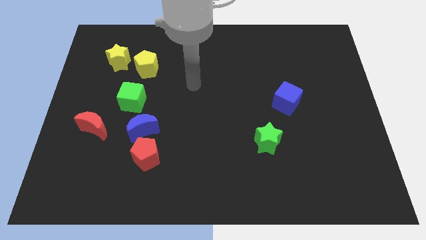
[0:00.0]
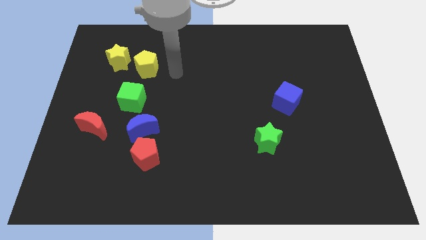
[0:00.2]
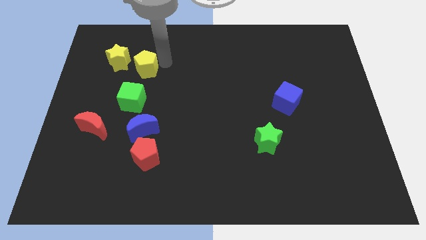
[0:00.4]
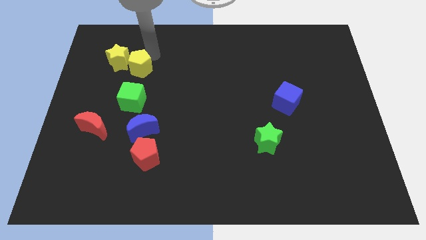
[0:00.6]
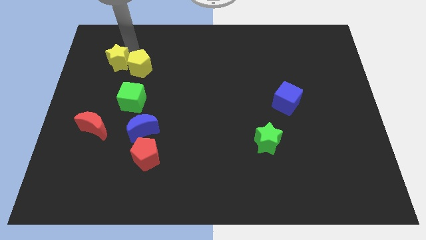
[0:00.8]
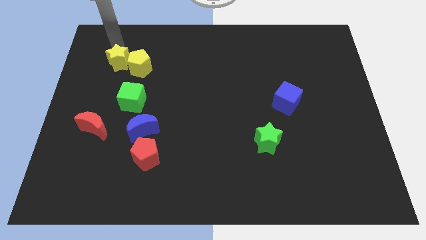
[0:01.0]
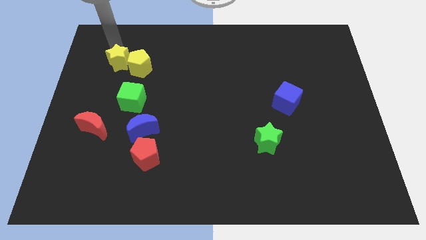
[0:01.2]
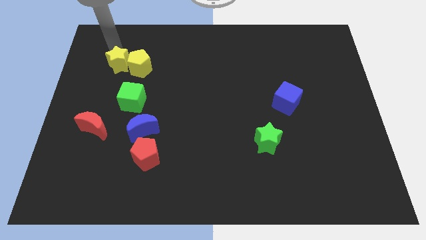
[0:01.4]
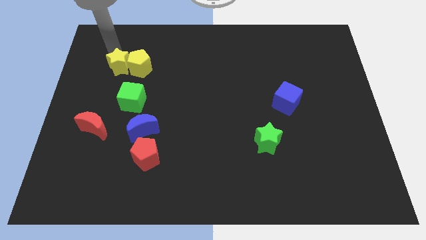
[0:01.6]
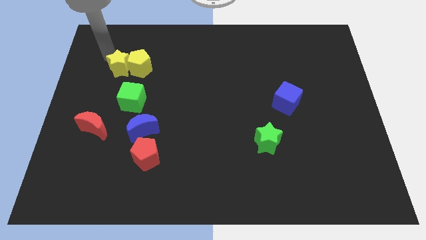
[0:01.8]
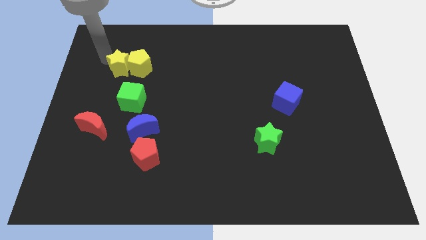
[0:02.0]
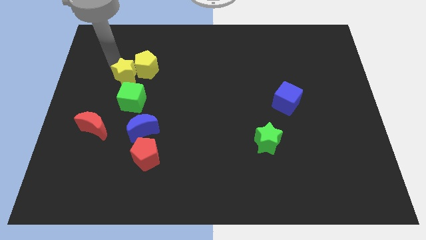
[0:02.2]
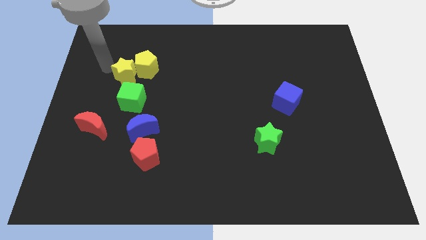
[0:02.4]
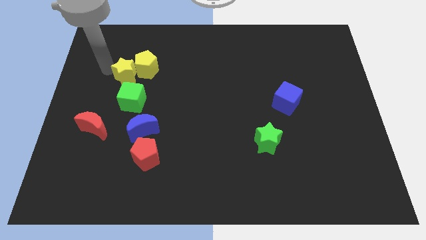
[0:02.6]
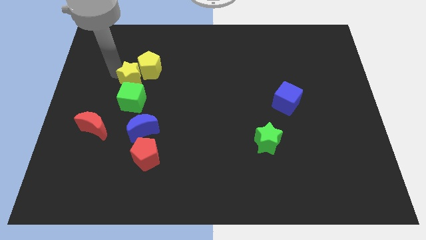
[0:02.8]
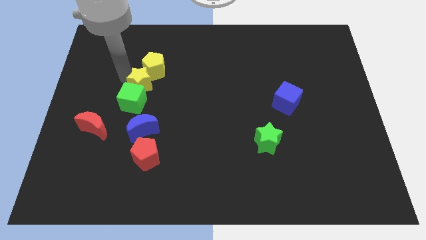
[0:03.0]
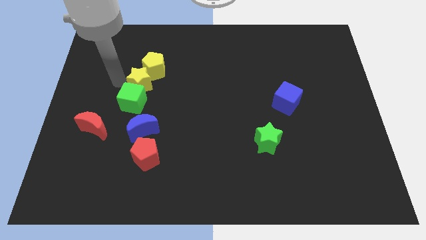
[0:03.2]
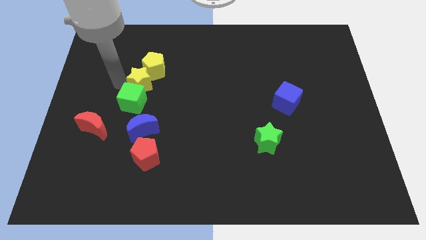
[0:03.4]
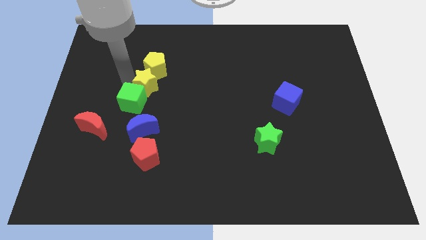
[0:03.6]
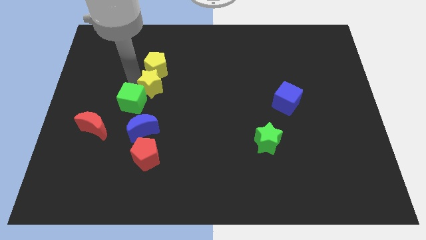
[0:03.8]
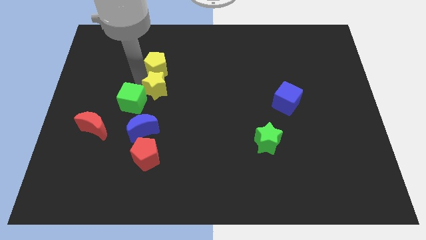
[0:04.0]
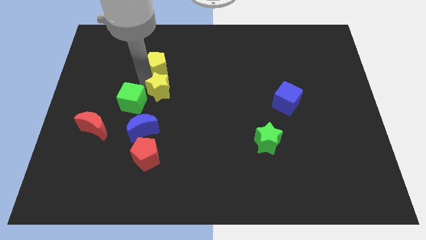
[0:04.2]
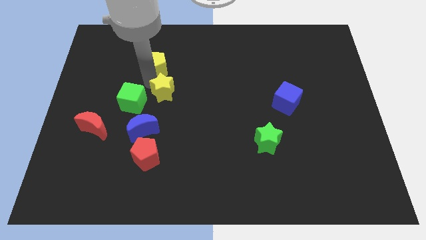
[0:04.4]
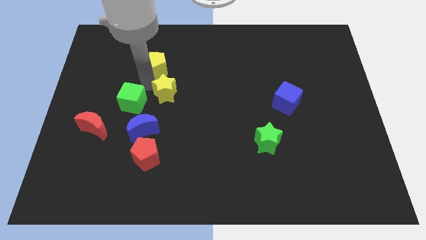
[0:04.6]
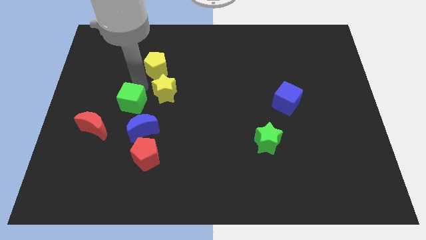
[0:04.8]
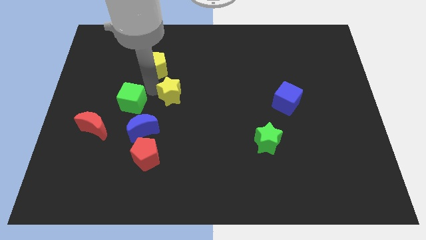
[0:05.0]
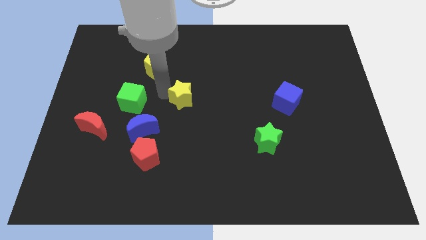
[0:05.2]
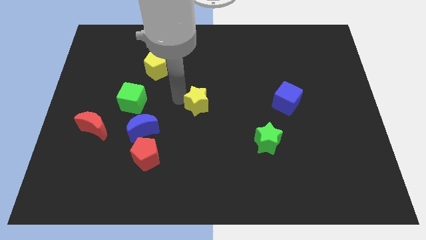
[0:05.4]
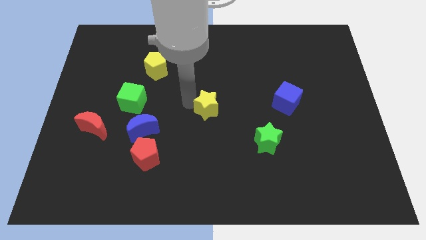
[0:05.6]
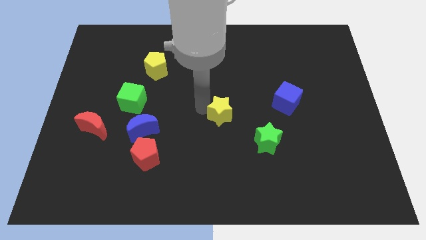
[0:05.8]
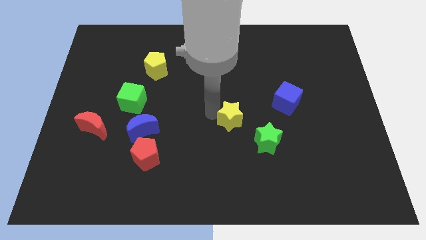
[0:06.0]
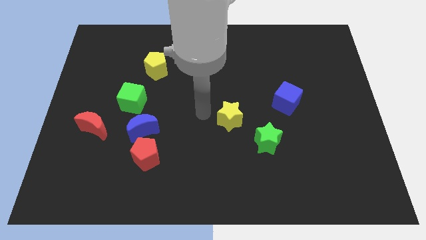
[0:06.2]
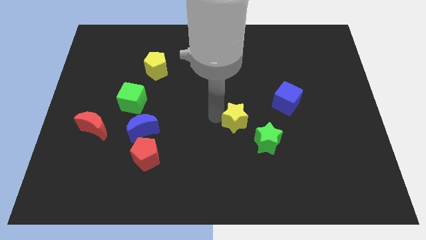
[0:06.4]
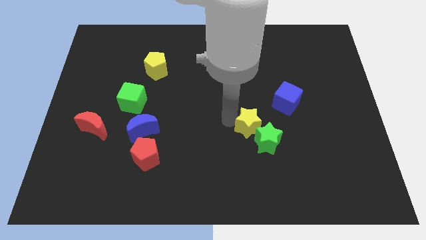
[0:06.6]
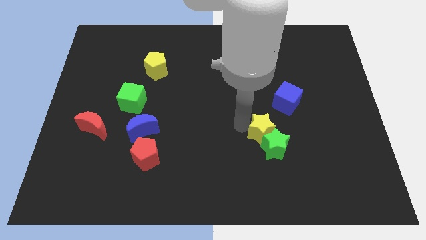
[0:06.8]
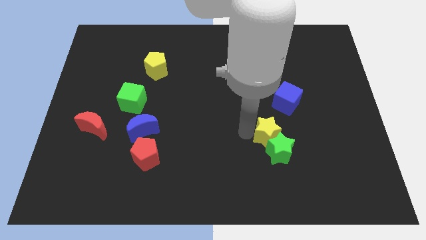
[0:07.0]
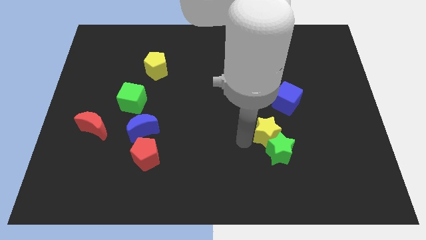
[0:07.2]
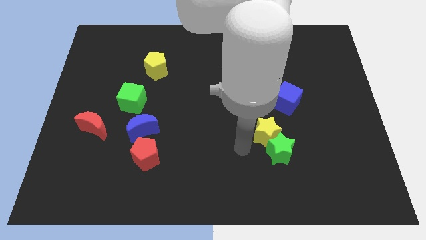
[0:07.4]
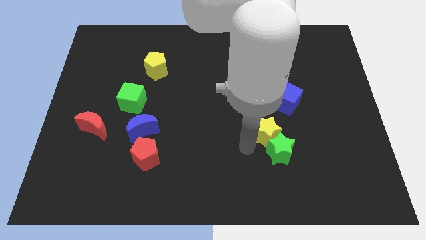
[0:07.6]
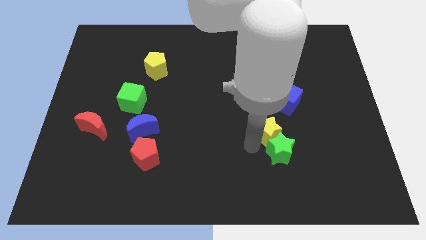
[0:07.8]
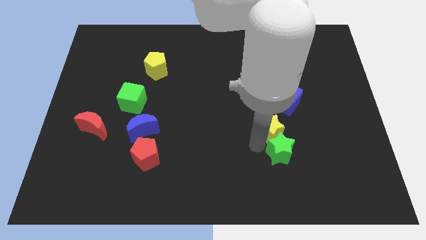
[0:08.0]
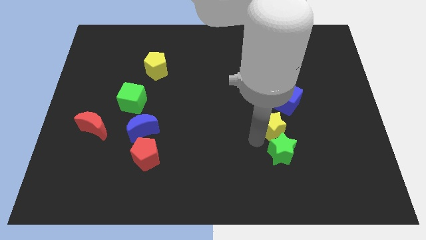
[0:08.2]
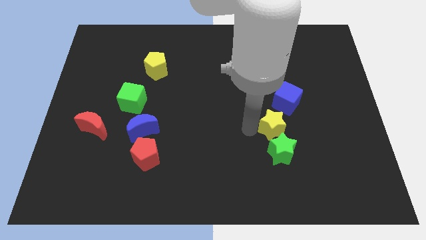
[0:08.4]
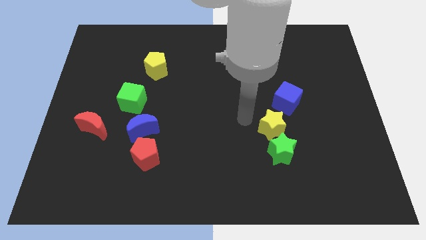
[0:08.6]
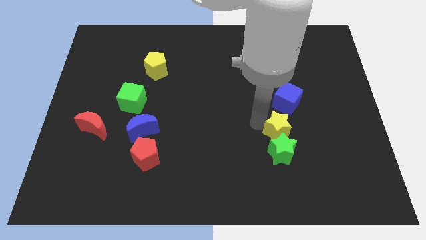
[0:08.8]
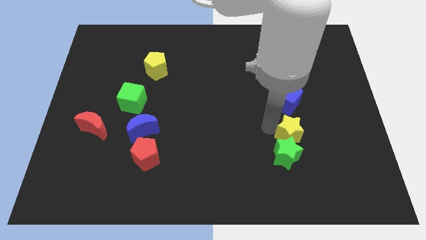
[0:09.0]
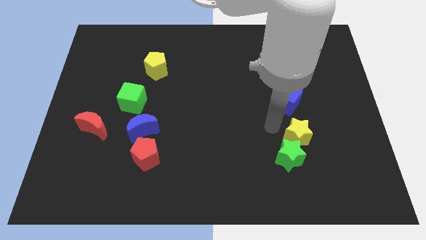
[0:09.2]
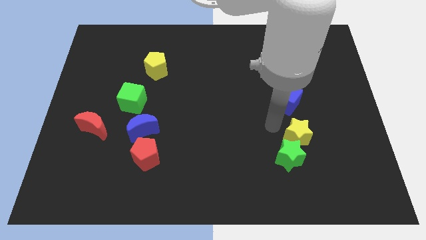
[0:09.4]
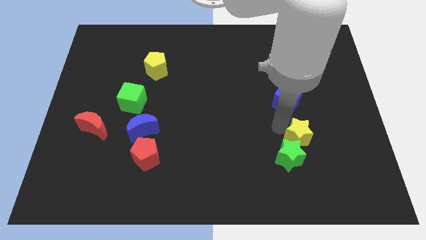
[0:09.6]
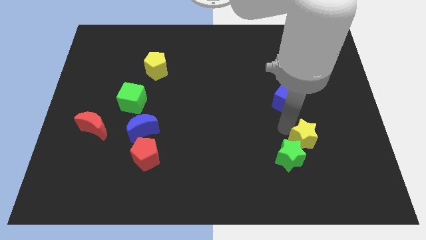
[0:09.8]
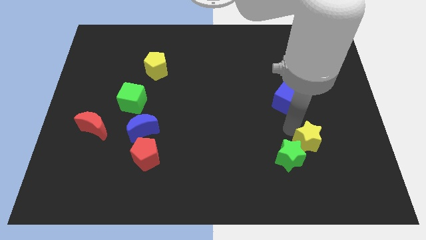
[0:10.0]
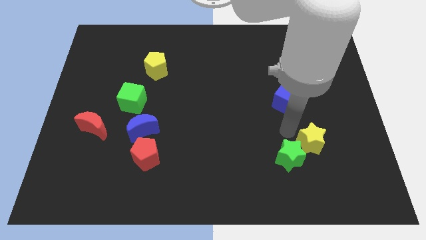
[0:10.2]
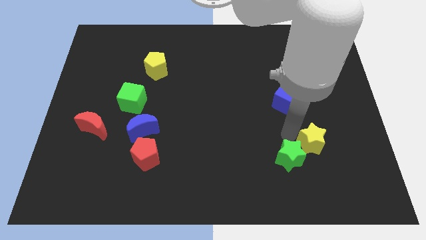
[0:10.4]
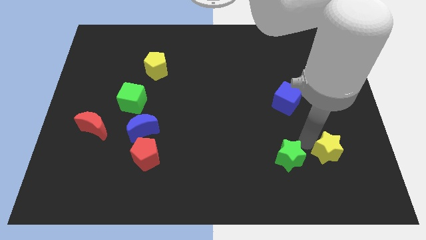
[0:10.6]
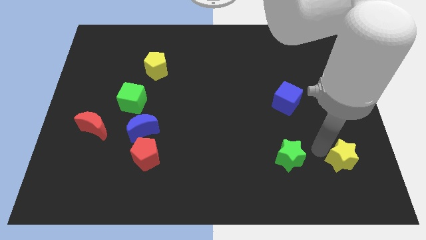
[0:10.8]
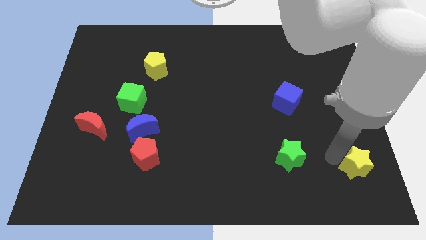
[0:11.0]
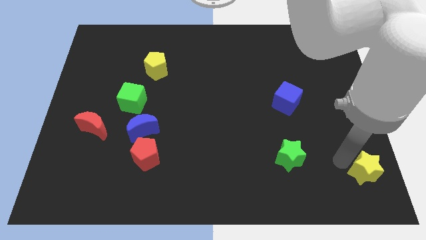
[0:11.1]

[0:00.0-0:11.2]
slide the yellow star to the bottom right of the board
